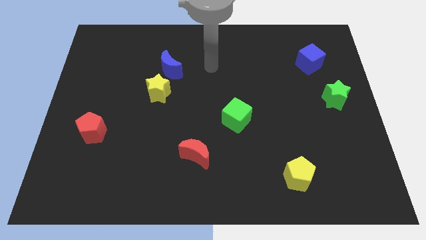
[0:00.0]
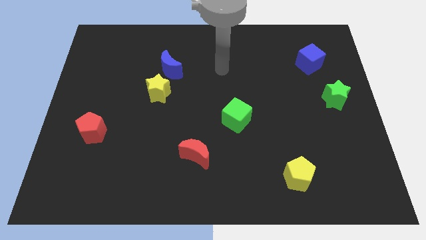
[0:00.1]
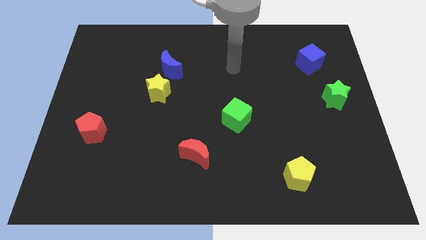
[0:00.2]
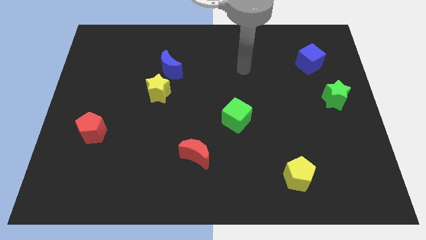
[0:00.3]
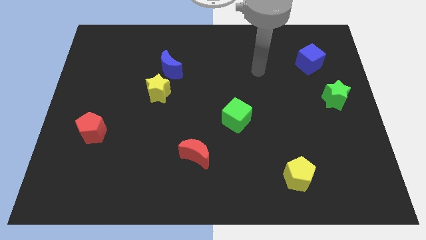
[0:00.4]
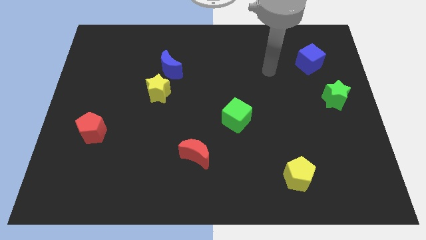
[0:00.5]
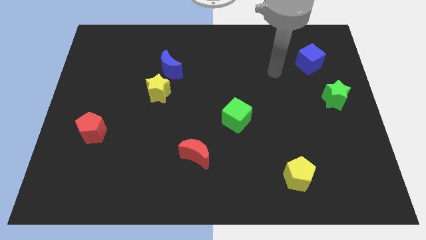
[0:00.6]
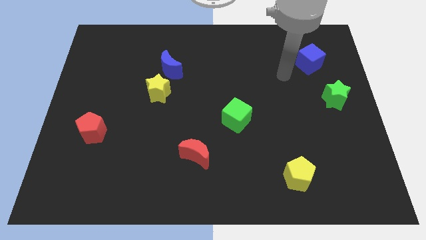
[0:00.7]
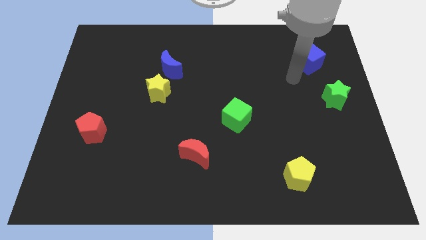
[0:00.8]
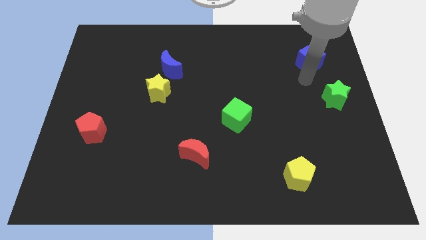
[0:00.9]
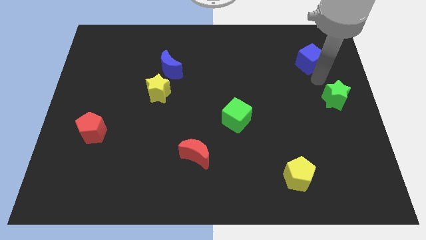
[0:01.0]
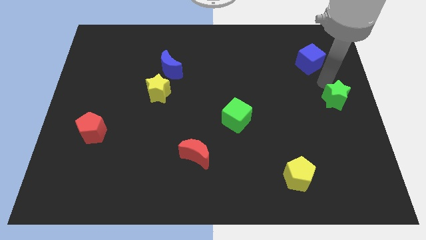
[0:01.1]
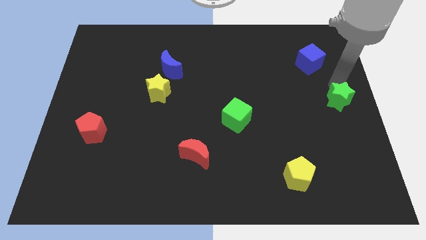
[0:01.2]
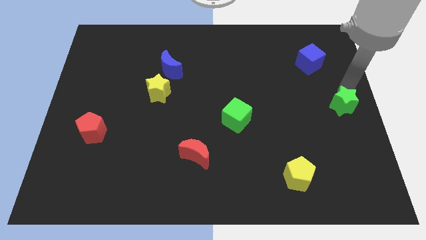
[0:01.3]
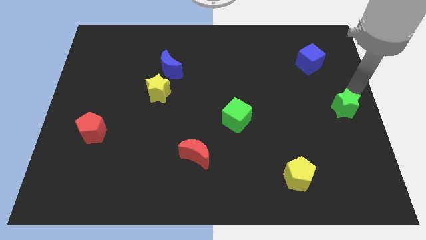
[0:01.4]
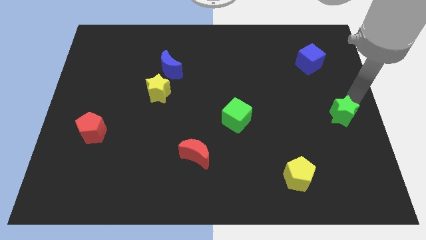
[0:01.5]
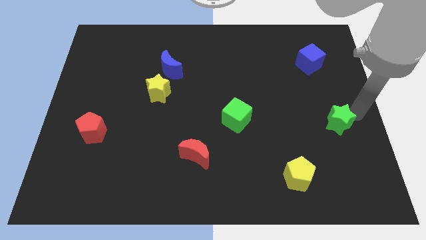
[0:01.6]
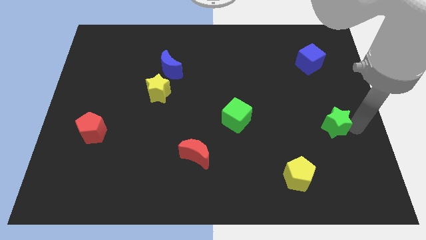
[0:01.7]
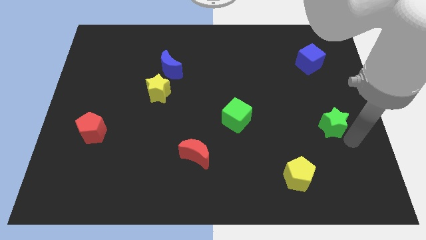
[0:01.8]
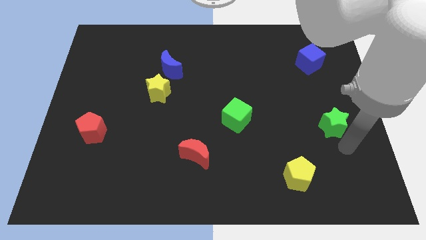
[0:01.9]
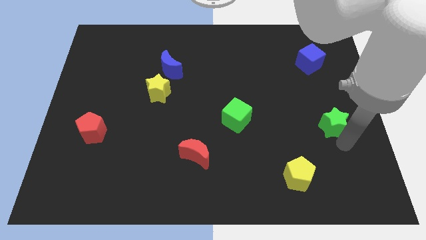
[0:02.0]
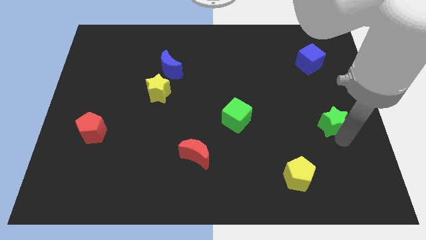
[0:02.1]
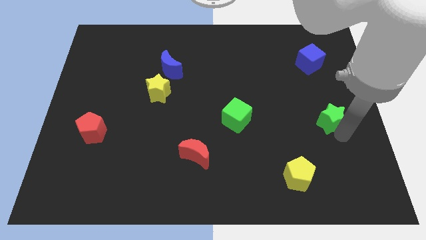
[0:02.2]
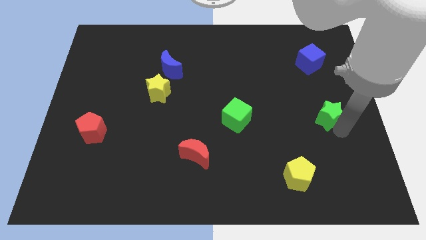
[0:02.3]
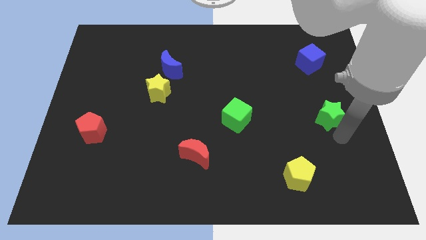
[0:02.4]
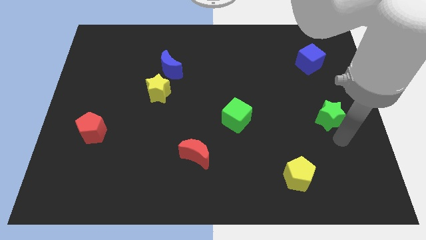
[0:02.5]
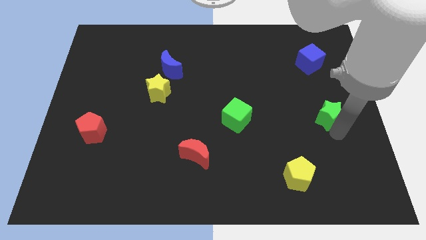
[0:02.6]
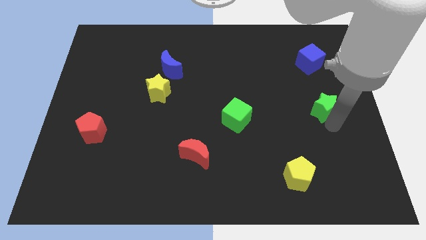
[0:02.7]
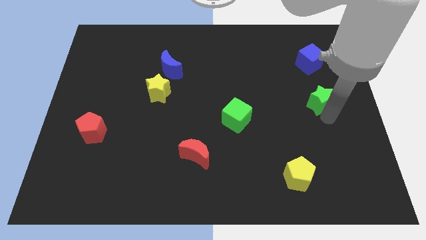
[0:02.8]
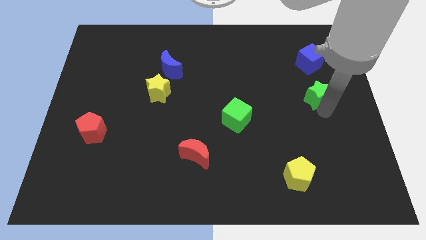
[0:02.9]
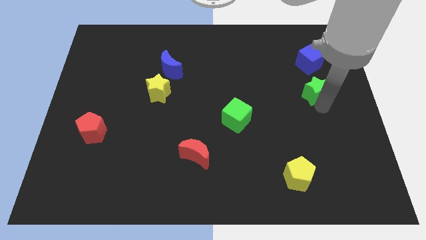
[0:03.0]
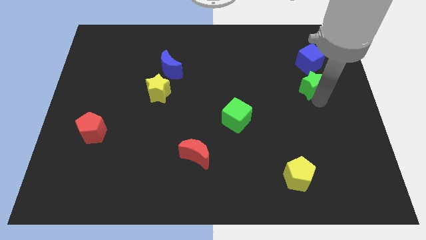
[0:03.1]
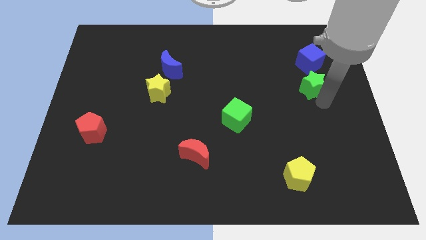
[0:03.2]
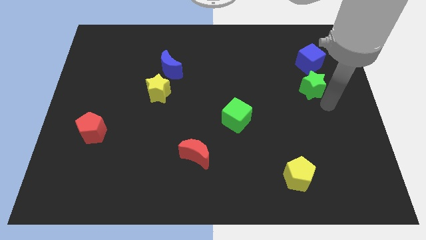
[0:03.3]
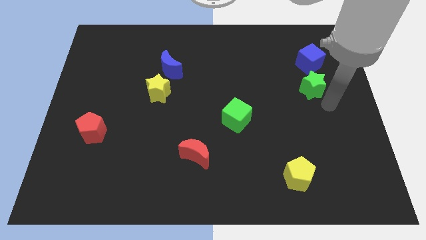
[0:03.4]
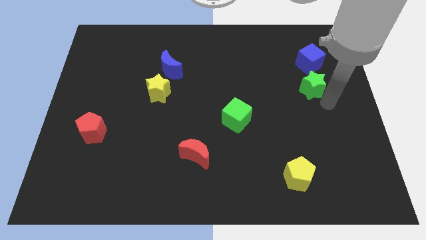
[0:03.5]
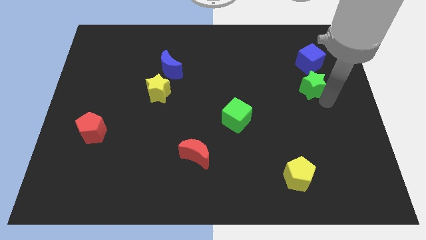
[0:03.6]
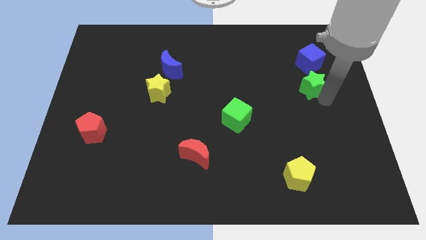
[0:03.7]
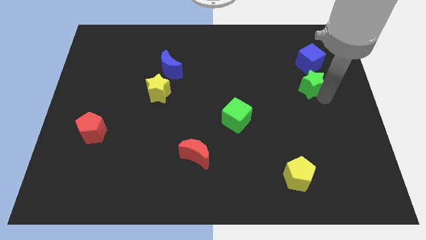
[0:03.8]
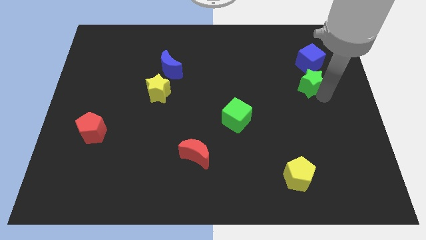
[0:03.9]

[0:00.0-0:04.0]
slightly push the green star upwards and to the left diagonally

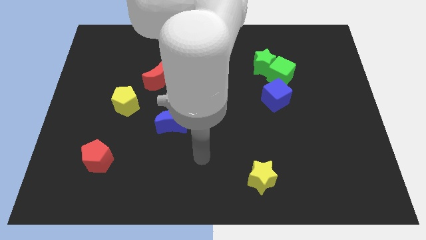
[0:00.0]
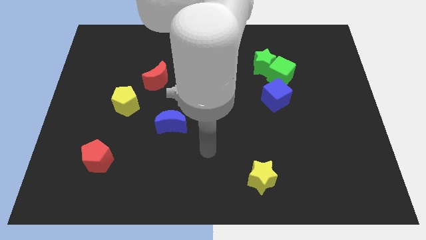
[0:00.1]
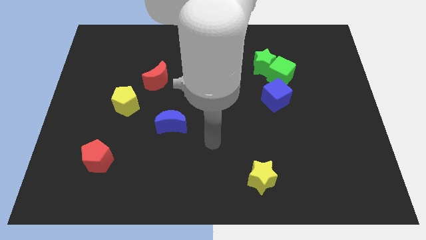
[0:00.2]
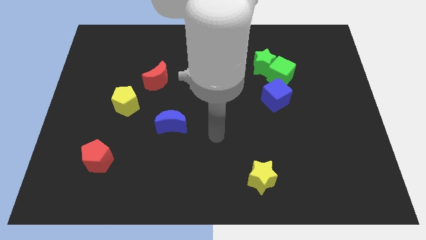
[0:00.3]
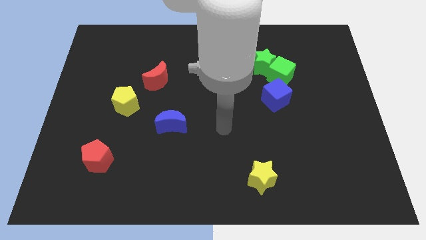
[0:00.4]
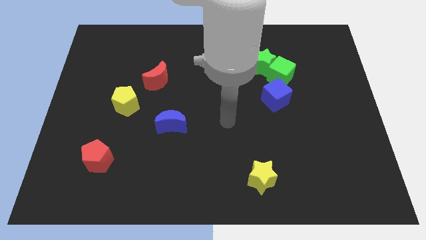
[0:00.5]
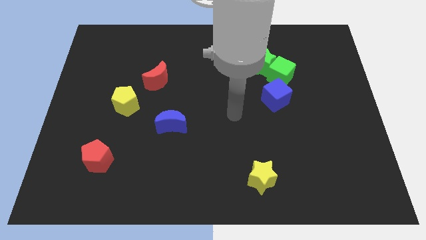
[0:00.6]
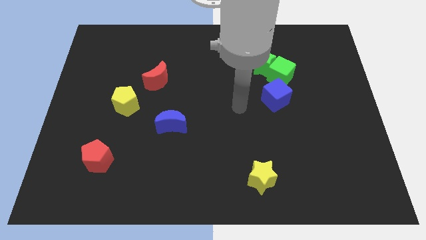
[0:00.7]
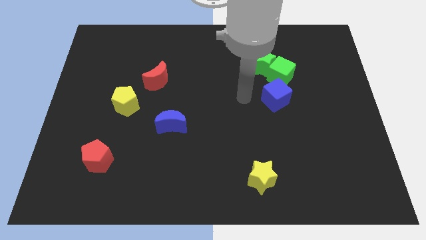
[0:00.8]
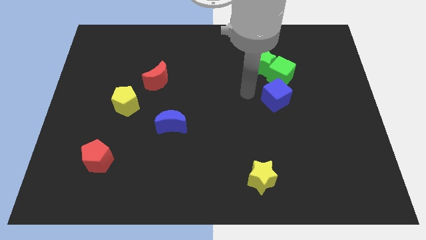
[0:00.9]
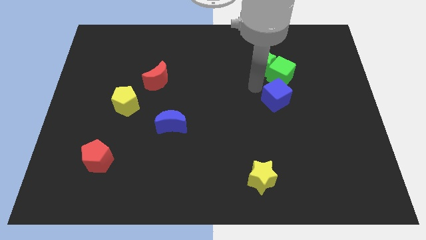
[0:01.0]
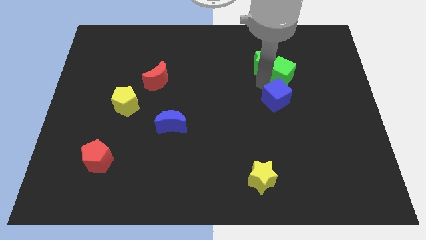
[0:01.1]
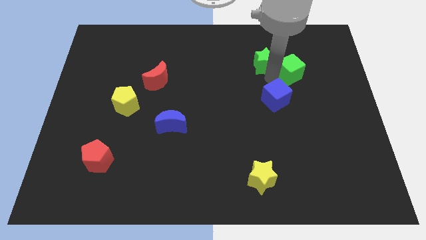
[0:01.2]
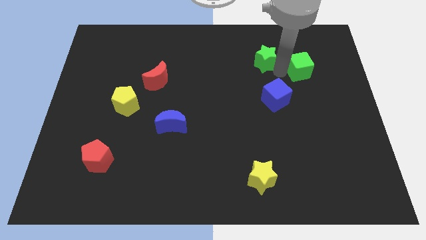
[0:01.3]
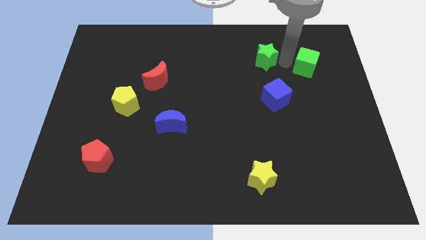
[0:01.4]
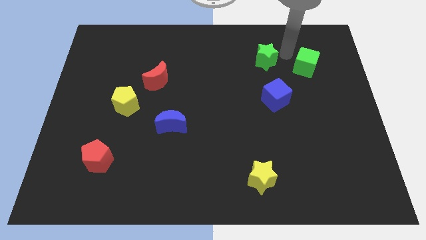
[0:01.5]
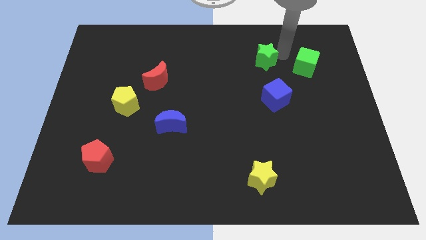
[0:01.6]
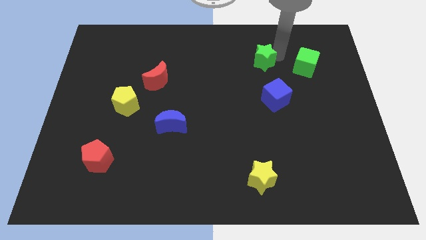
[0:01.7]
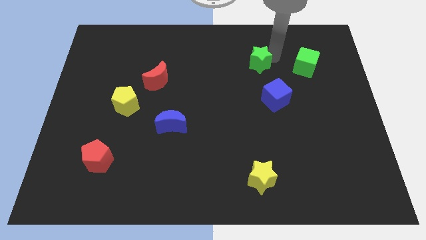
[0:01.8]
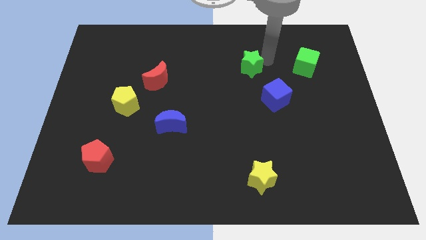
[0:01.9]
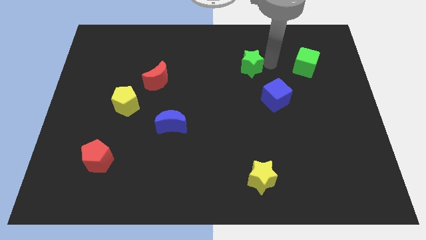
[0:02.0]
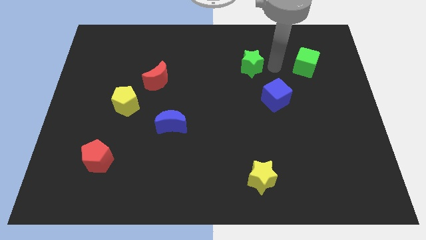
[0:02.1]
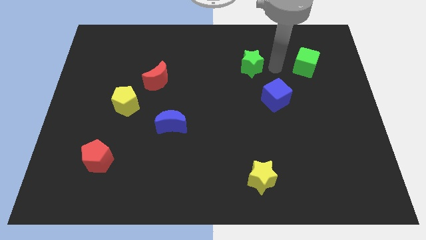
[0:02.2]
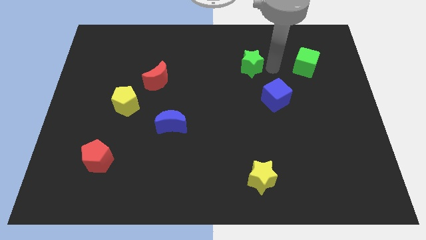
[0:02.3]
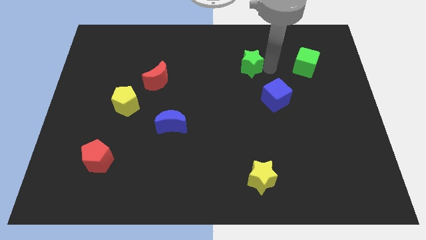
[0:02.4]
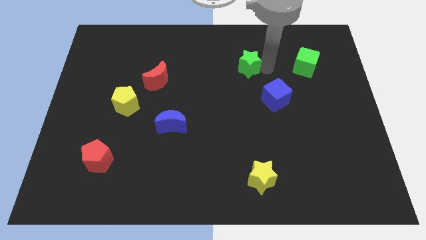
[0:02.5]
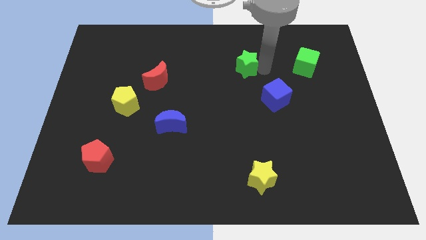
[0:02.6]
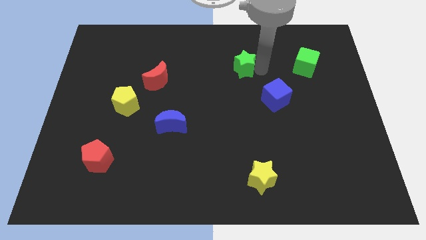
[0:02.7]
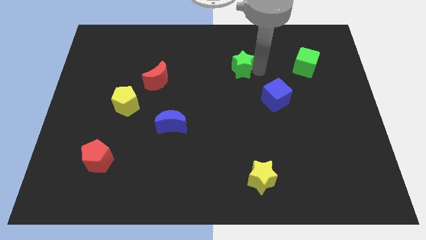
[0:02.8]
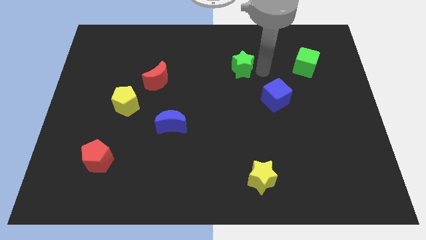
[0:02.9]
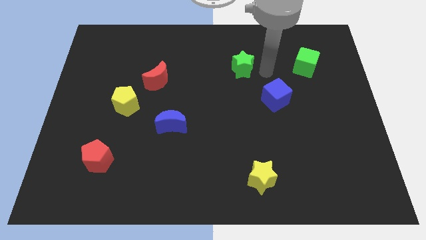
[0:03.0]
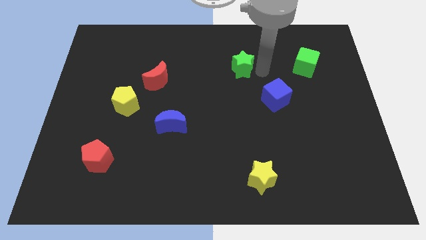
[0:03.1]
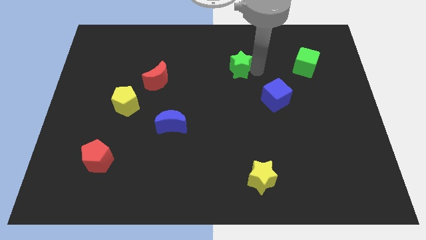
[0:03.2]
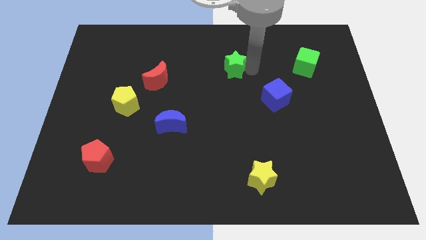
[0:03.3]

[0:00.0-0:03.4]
slide the green star slightly left
